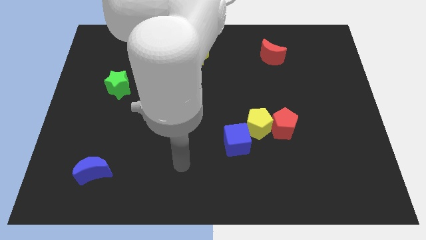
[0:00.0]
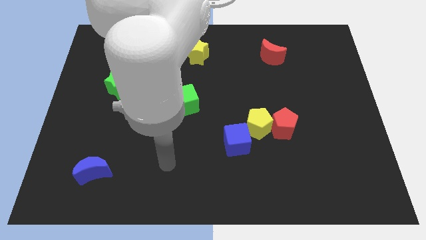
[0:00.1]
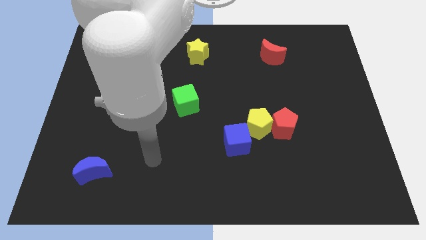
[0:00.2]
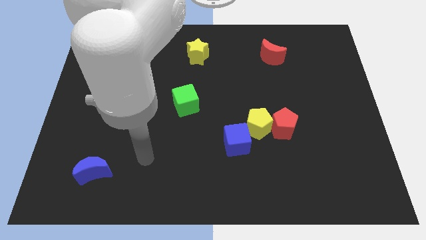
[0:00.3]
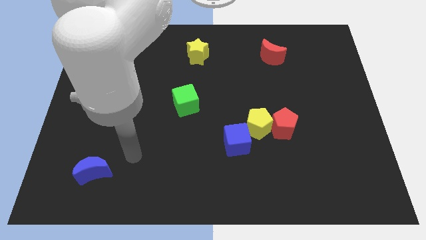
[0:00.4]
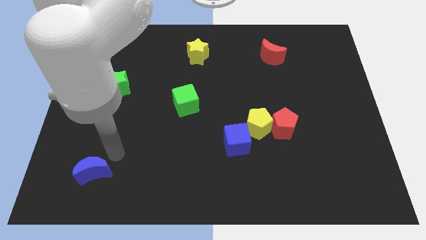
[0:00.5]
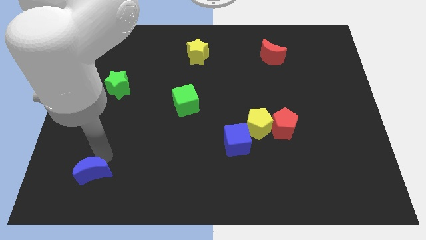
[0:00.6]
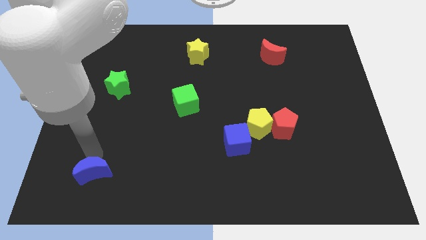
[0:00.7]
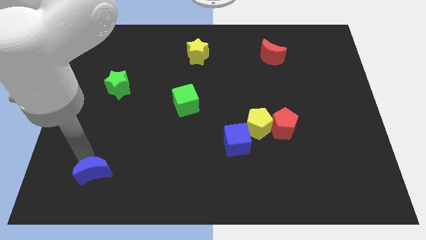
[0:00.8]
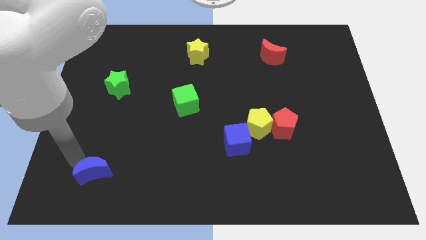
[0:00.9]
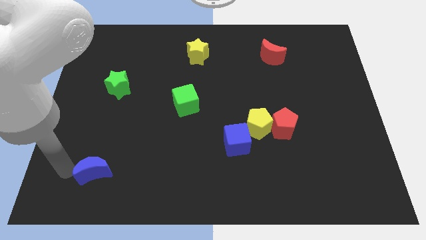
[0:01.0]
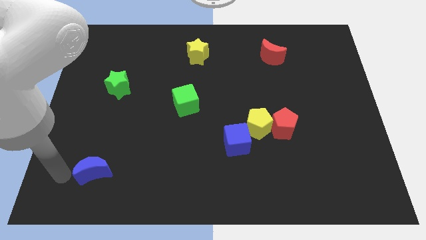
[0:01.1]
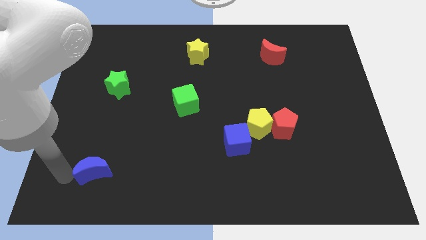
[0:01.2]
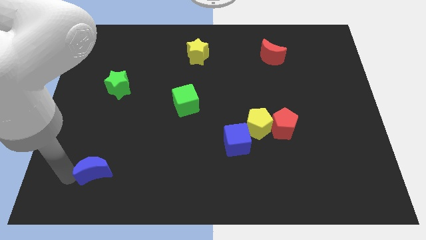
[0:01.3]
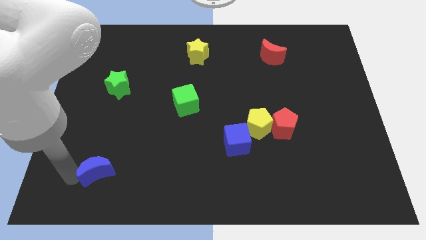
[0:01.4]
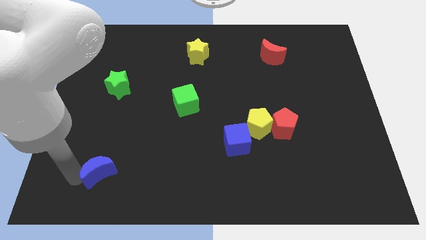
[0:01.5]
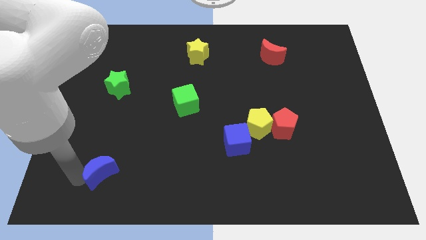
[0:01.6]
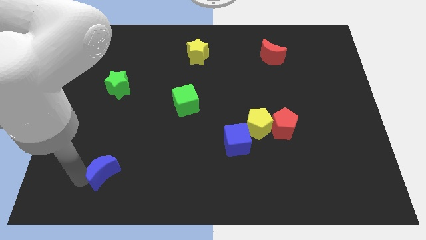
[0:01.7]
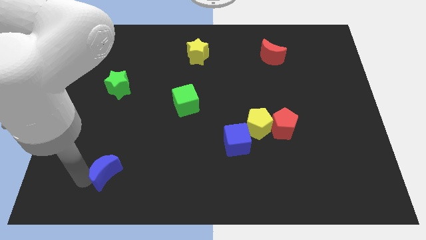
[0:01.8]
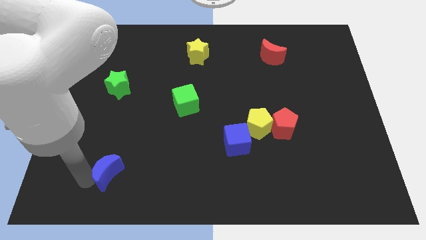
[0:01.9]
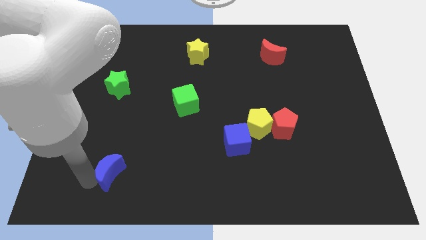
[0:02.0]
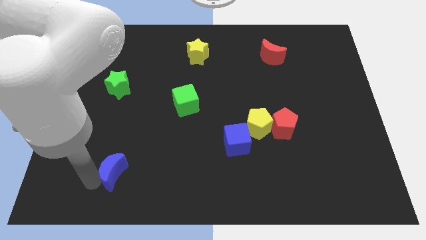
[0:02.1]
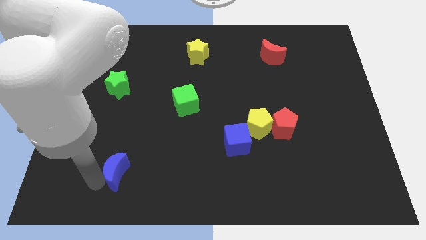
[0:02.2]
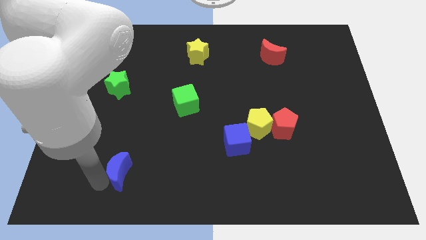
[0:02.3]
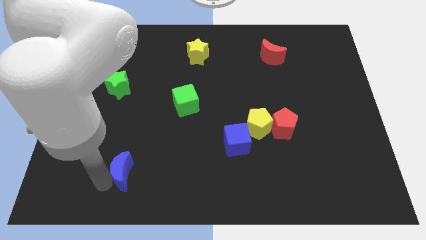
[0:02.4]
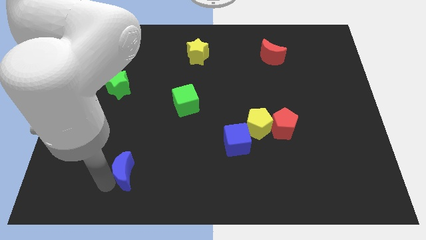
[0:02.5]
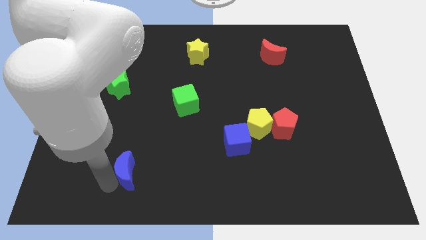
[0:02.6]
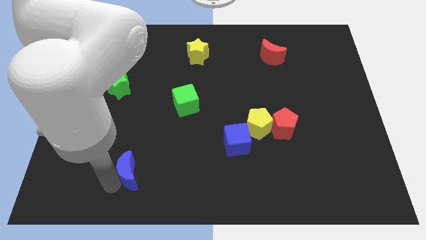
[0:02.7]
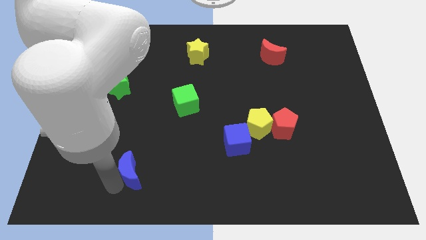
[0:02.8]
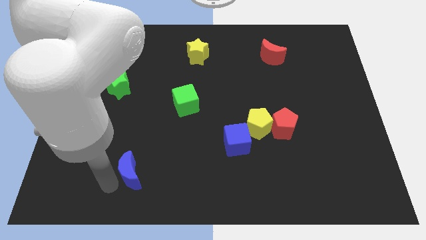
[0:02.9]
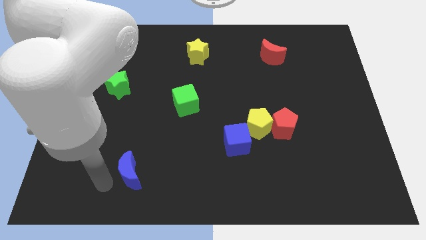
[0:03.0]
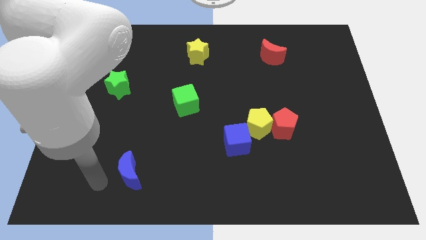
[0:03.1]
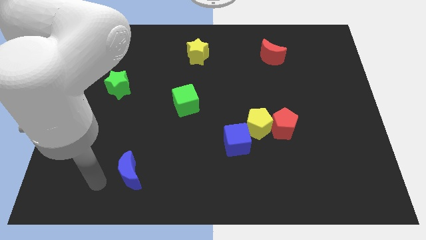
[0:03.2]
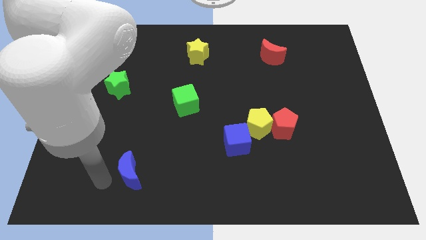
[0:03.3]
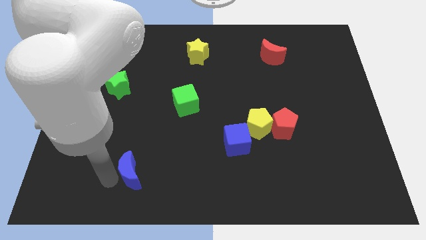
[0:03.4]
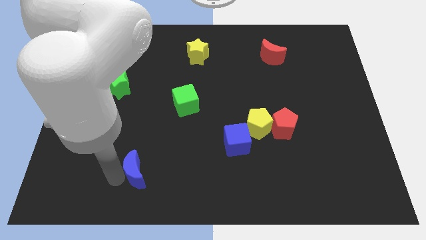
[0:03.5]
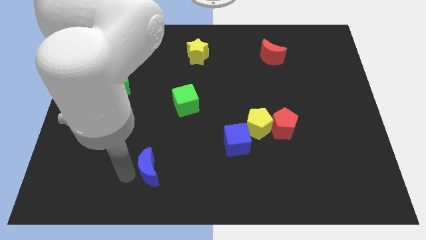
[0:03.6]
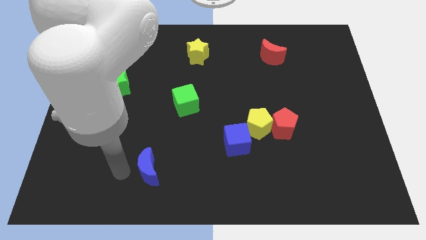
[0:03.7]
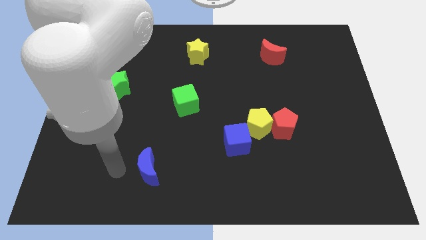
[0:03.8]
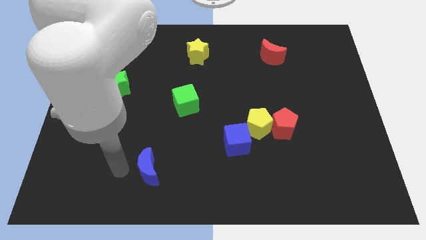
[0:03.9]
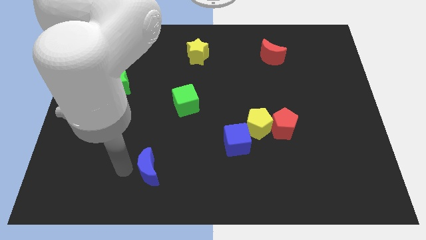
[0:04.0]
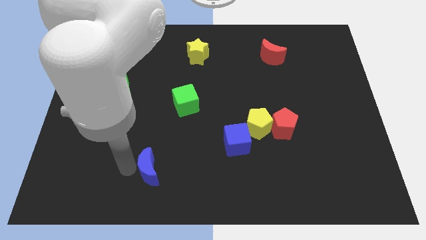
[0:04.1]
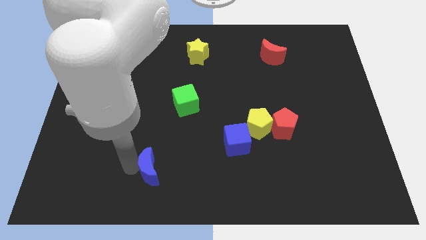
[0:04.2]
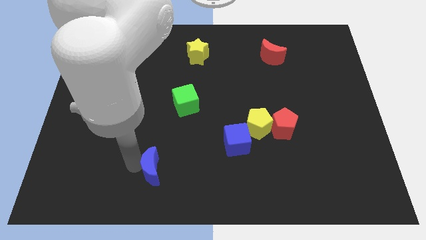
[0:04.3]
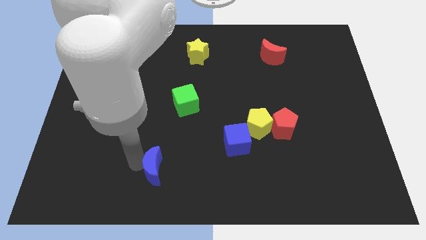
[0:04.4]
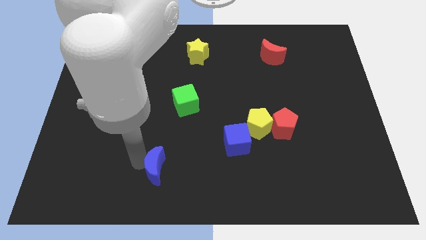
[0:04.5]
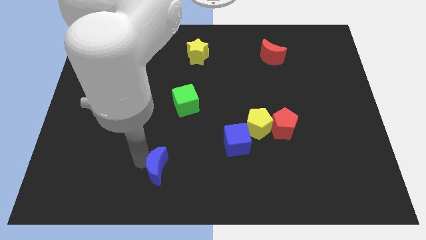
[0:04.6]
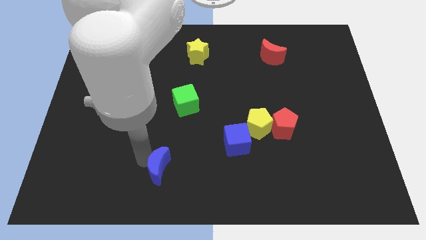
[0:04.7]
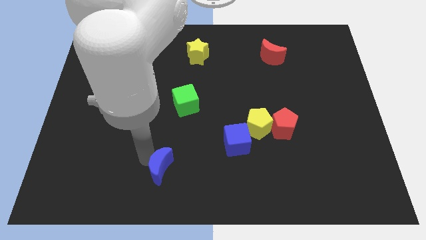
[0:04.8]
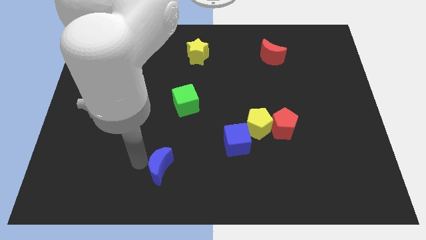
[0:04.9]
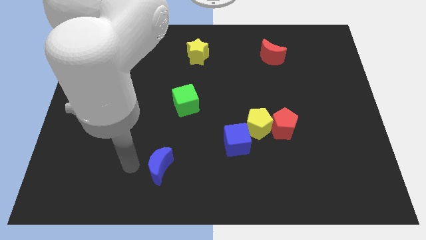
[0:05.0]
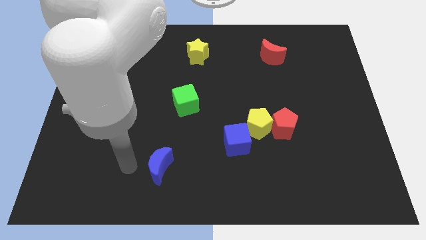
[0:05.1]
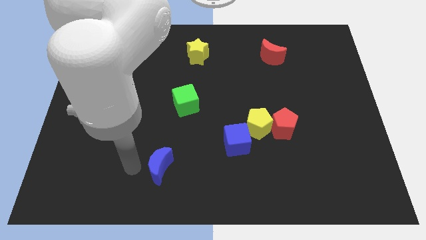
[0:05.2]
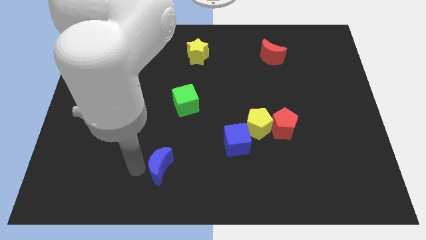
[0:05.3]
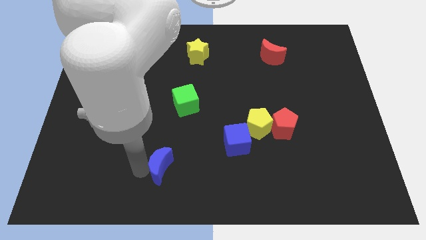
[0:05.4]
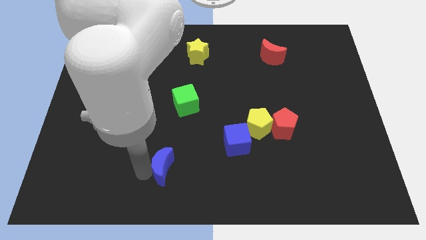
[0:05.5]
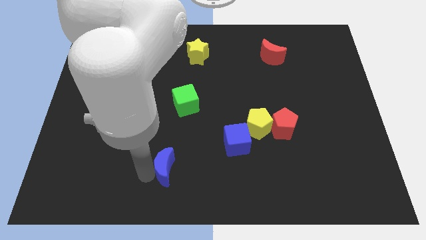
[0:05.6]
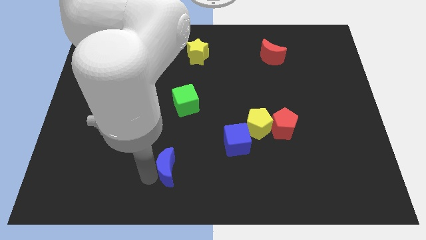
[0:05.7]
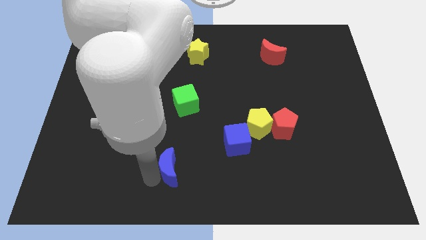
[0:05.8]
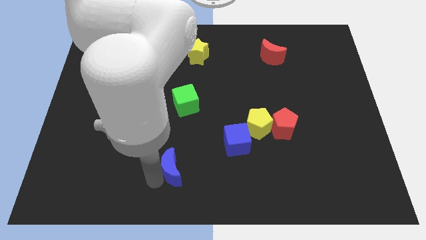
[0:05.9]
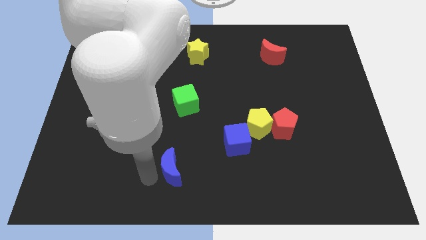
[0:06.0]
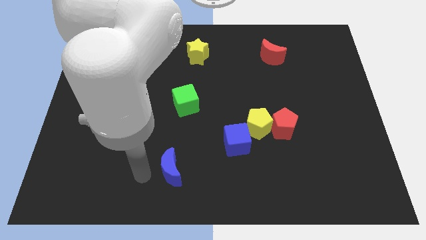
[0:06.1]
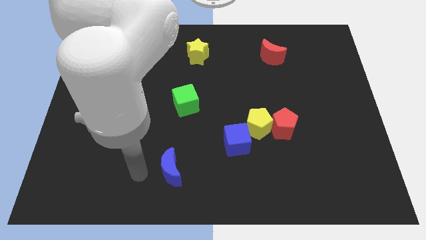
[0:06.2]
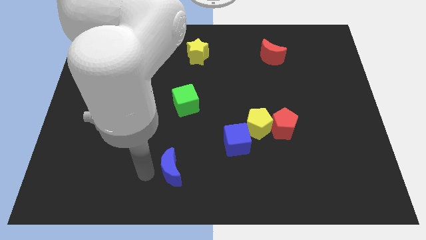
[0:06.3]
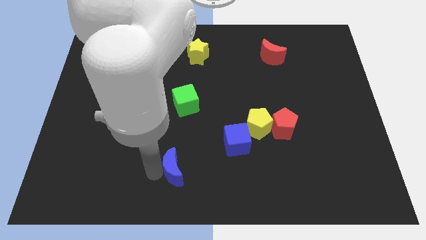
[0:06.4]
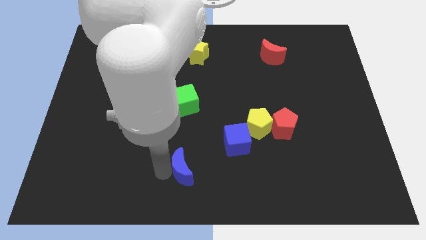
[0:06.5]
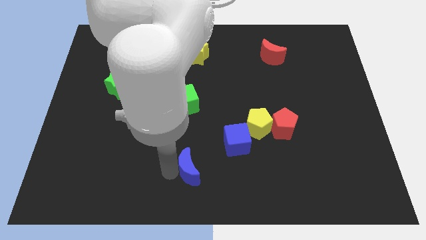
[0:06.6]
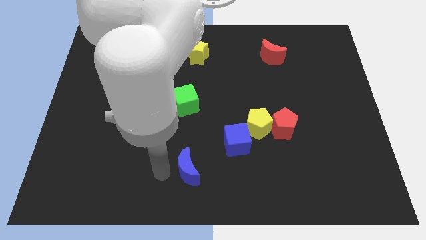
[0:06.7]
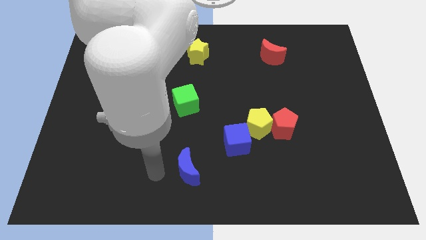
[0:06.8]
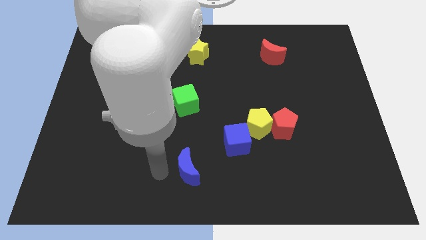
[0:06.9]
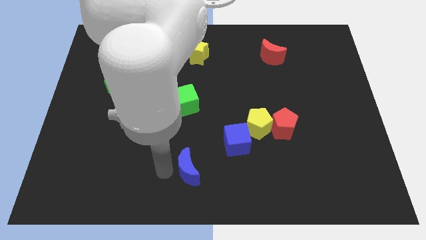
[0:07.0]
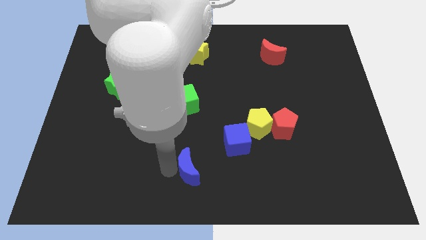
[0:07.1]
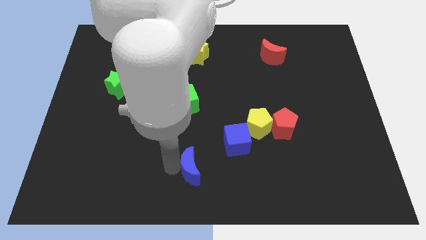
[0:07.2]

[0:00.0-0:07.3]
move the blue moon right

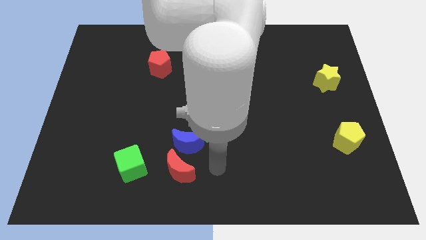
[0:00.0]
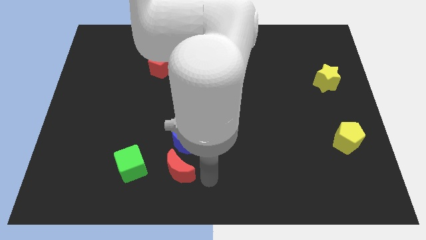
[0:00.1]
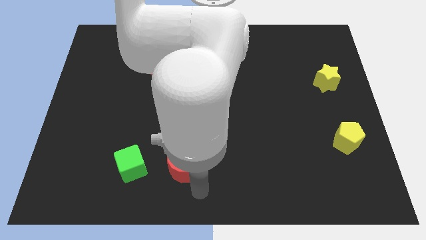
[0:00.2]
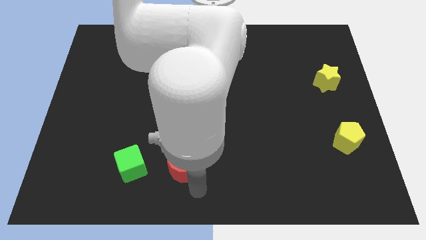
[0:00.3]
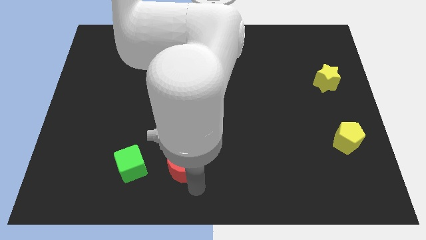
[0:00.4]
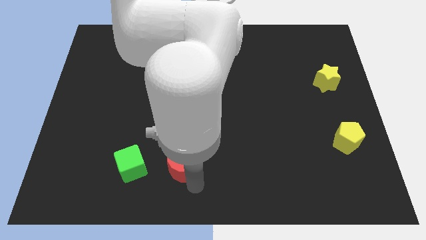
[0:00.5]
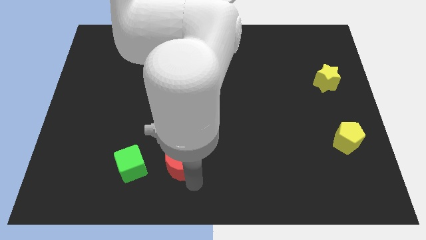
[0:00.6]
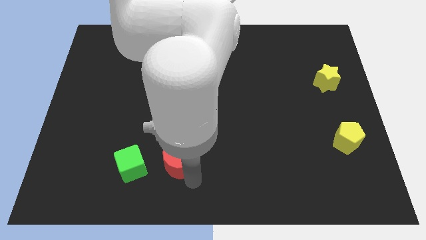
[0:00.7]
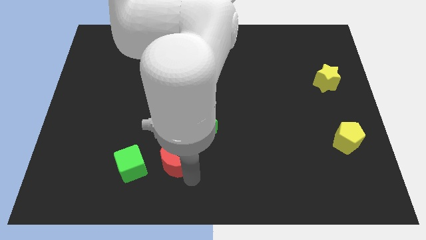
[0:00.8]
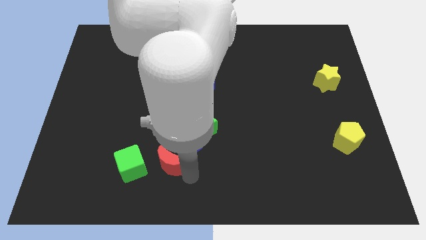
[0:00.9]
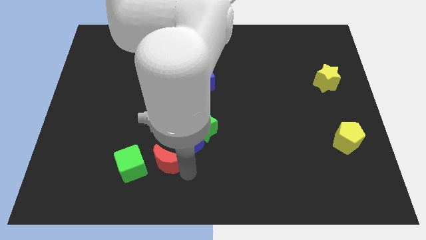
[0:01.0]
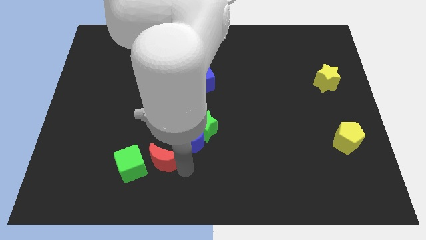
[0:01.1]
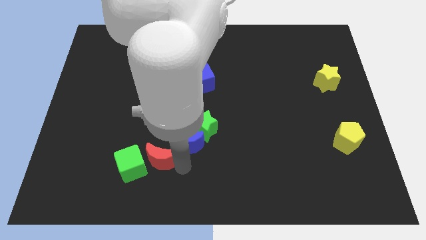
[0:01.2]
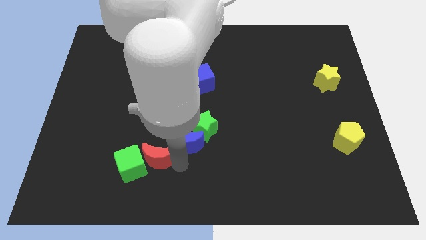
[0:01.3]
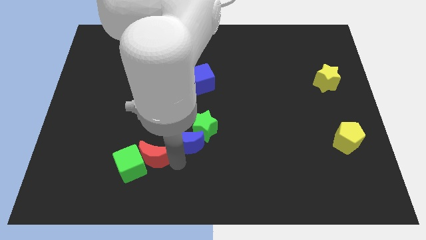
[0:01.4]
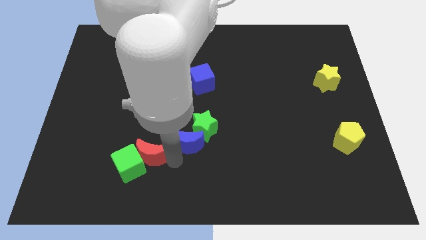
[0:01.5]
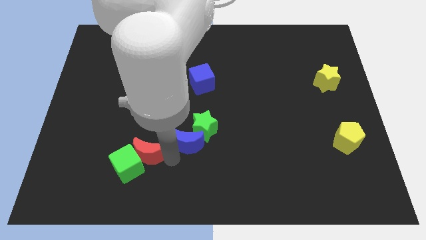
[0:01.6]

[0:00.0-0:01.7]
move the red moon upwards and to the left a little bit
